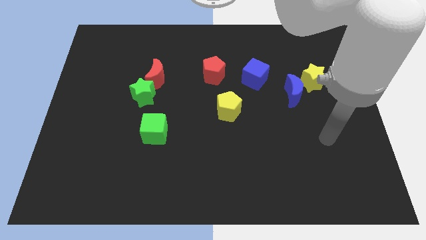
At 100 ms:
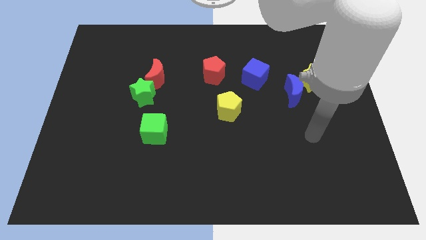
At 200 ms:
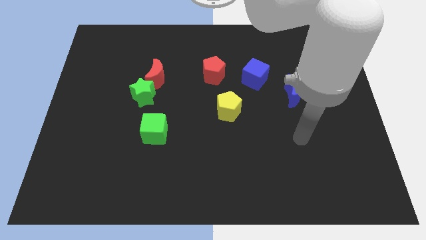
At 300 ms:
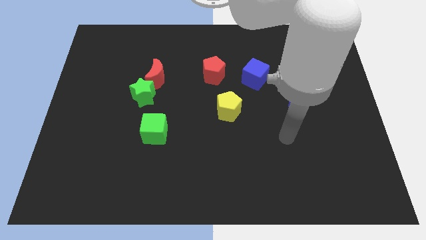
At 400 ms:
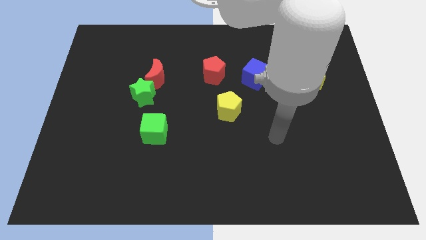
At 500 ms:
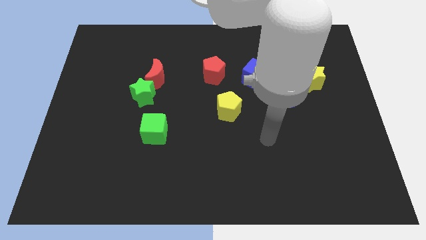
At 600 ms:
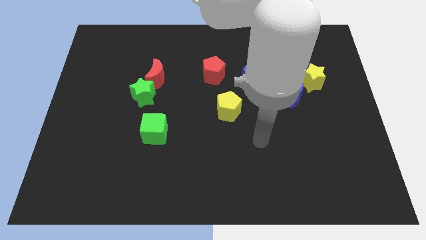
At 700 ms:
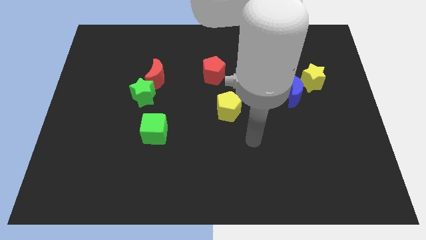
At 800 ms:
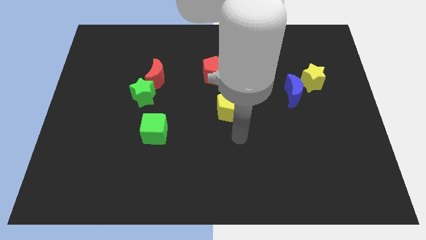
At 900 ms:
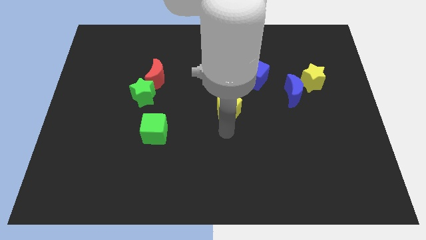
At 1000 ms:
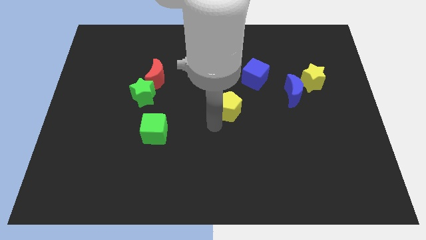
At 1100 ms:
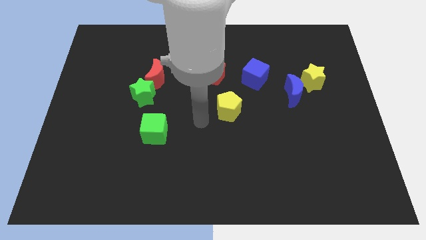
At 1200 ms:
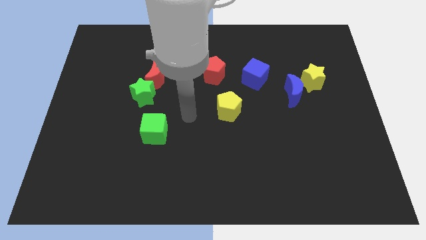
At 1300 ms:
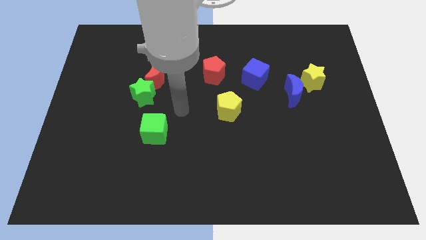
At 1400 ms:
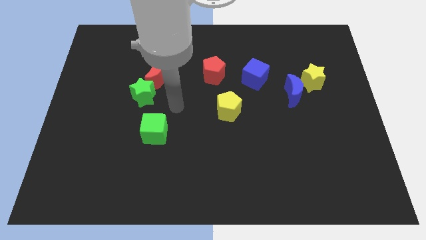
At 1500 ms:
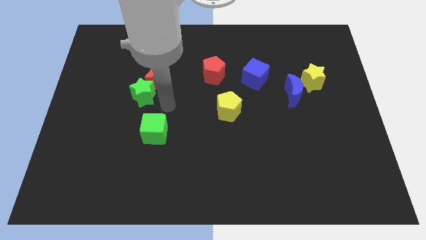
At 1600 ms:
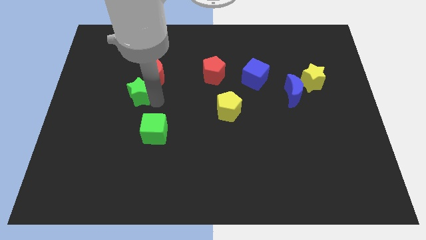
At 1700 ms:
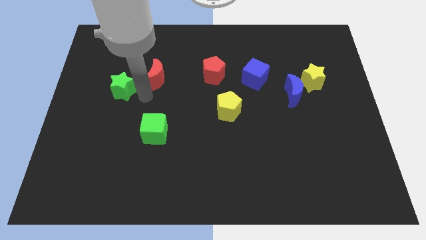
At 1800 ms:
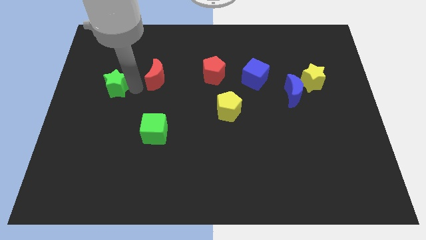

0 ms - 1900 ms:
separate the red moon from the green star

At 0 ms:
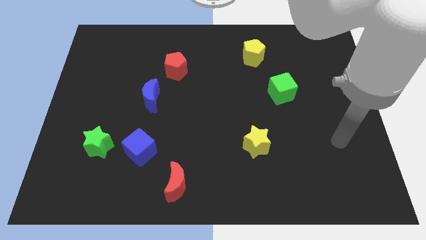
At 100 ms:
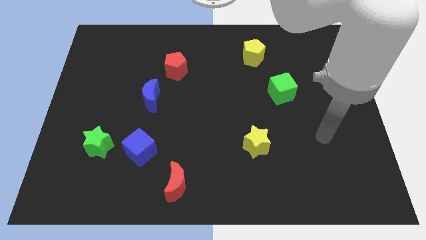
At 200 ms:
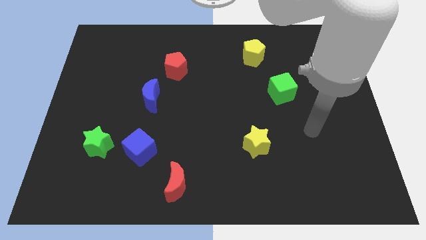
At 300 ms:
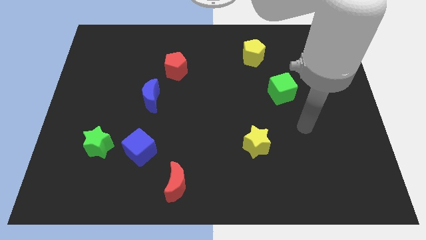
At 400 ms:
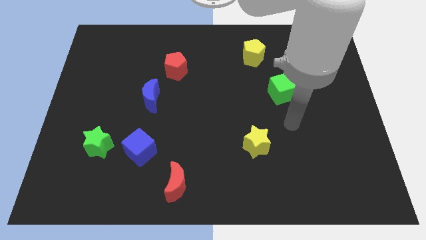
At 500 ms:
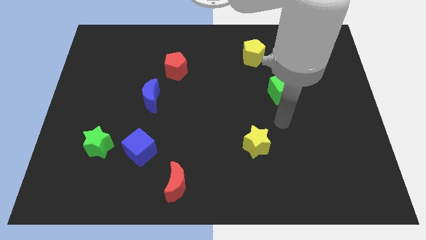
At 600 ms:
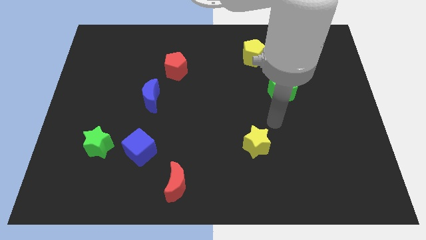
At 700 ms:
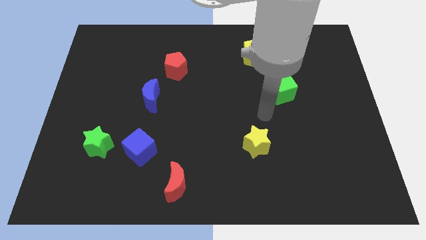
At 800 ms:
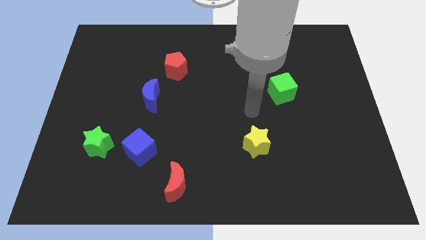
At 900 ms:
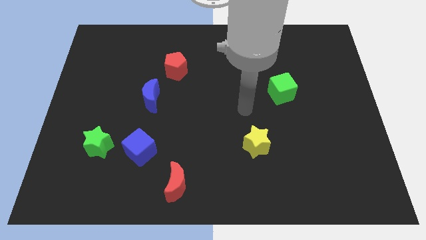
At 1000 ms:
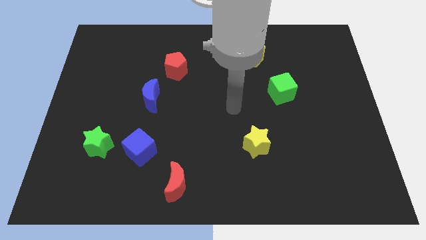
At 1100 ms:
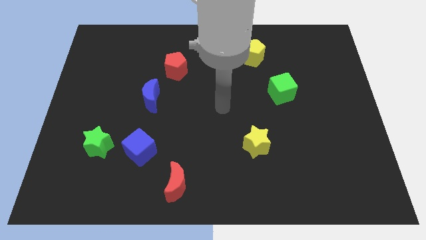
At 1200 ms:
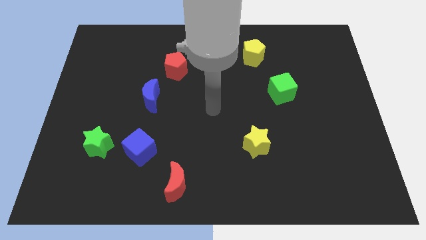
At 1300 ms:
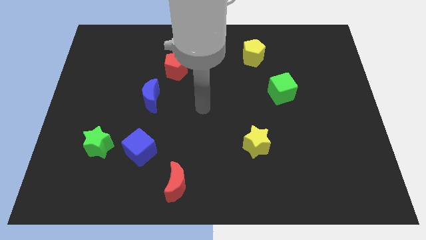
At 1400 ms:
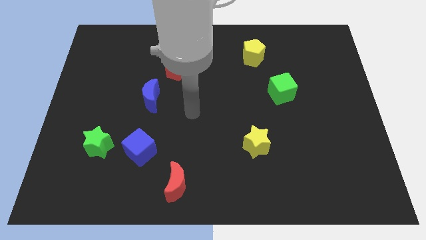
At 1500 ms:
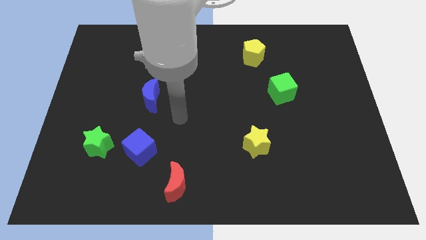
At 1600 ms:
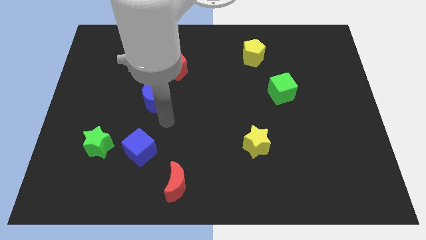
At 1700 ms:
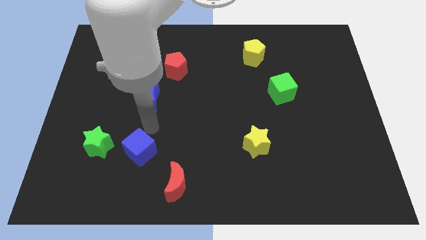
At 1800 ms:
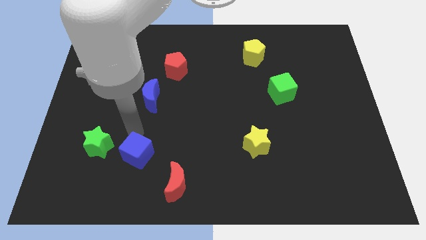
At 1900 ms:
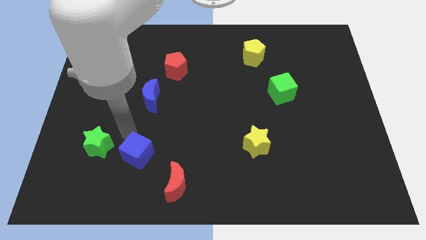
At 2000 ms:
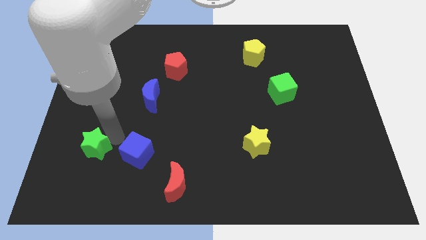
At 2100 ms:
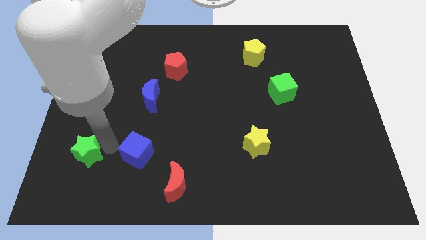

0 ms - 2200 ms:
pull the blue cube apart from the green star

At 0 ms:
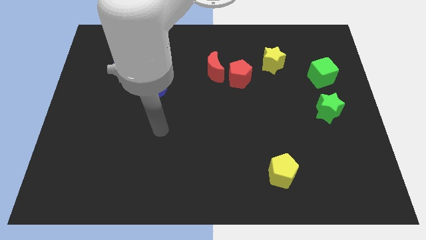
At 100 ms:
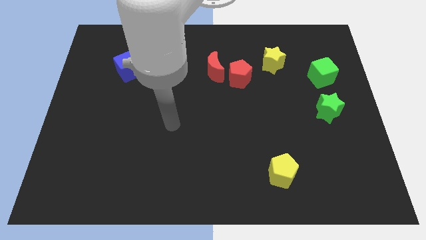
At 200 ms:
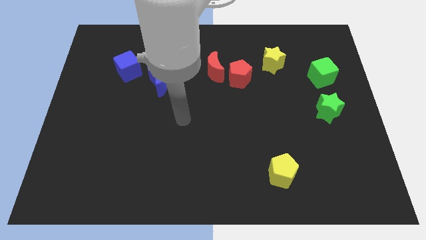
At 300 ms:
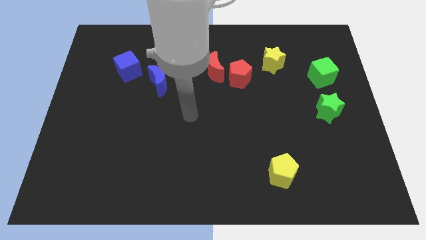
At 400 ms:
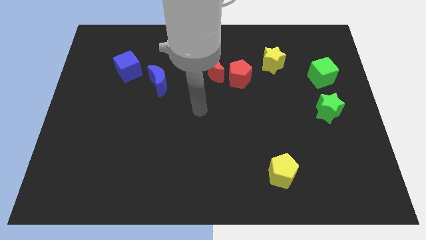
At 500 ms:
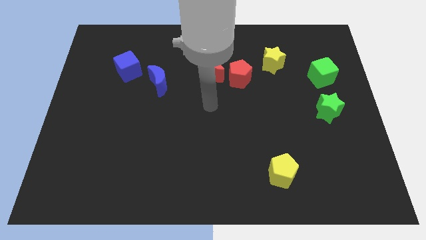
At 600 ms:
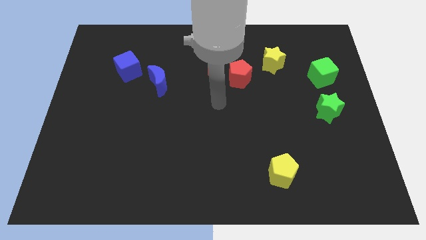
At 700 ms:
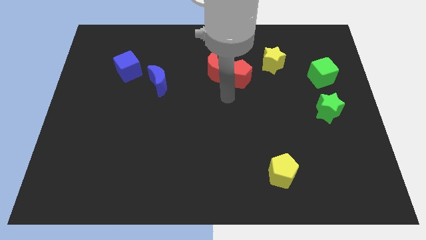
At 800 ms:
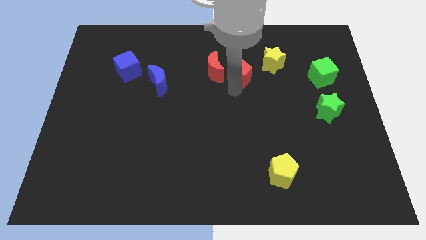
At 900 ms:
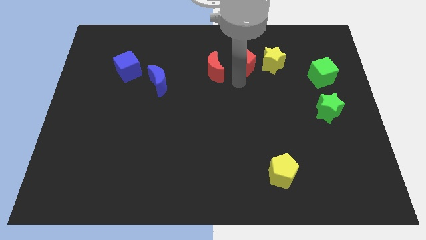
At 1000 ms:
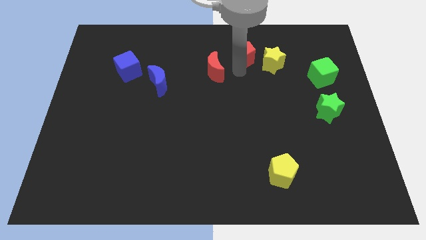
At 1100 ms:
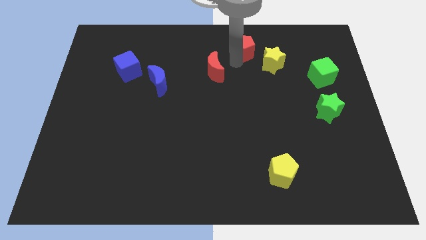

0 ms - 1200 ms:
pull the red moon apart from the red pentagon

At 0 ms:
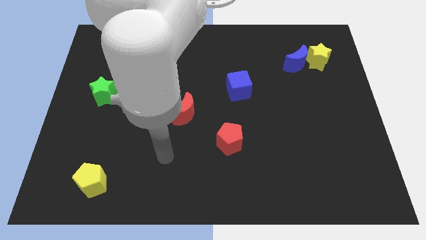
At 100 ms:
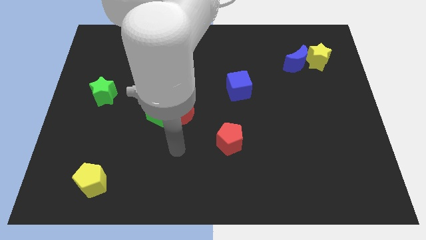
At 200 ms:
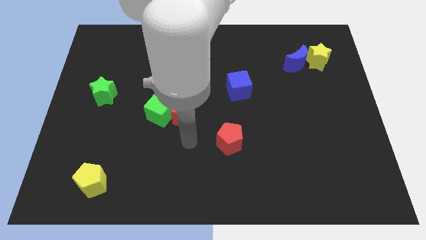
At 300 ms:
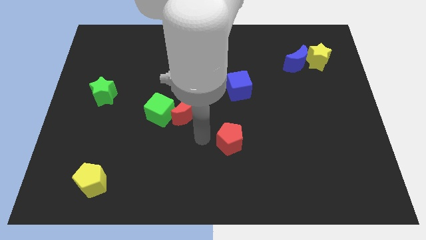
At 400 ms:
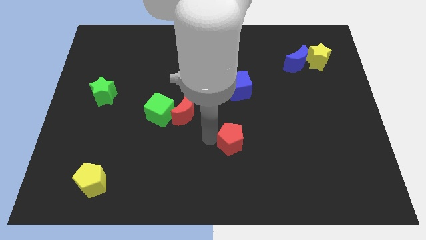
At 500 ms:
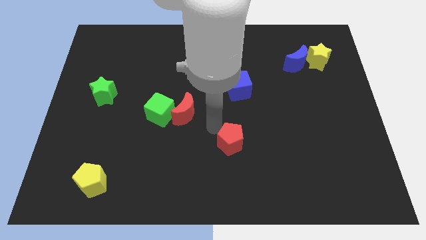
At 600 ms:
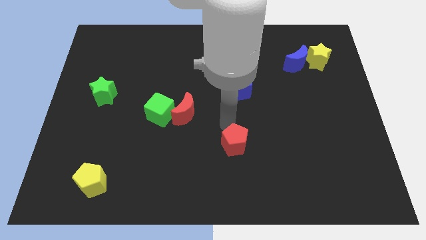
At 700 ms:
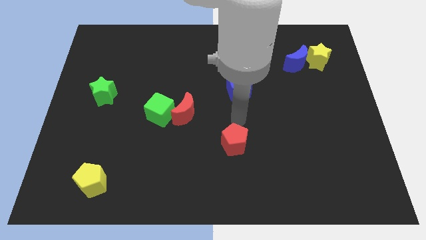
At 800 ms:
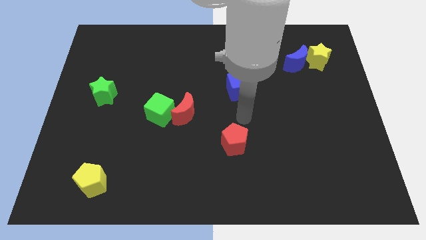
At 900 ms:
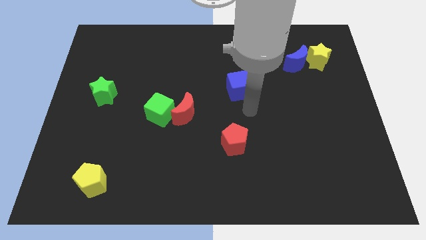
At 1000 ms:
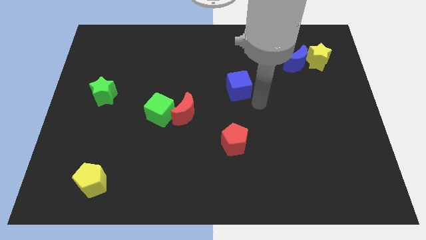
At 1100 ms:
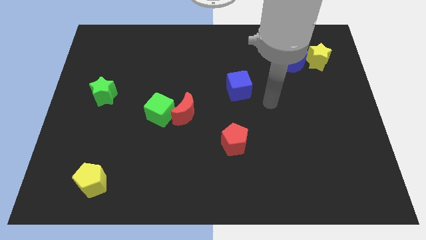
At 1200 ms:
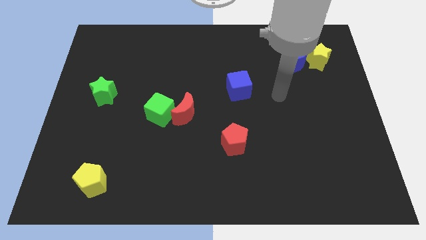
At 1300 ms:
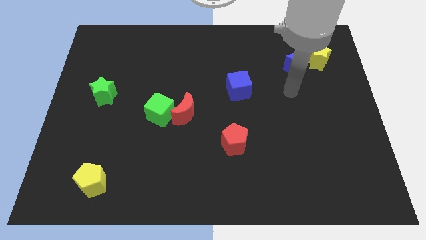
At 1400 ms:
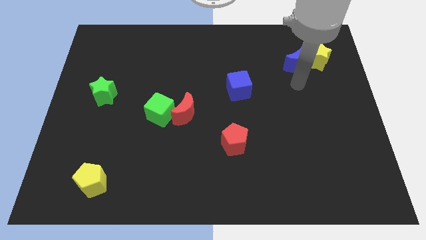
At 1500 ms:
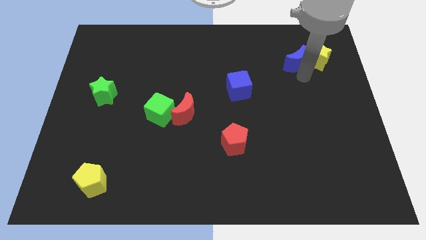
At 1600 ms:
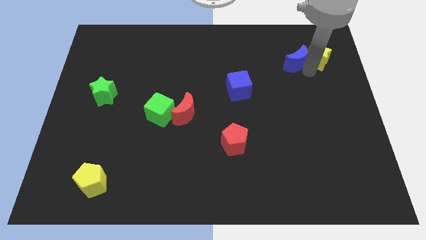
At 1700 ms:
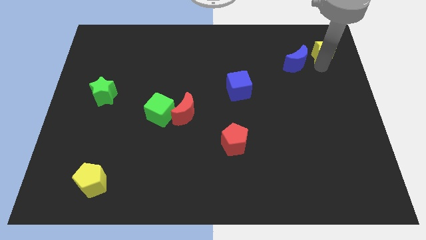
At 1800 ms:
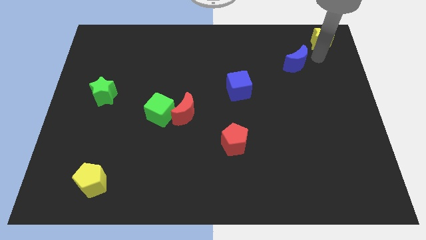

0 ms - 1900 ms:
pull the blue moon apart from the yellow star

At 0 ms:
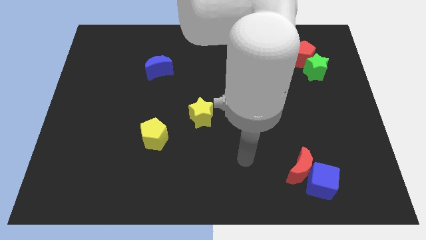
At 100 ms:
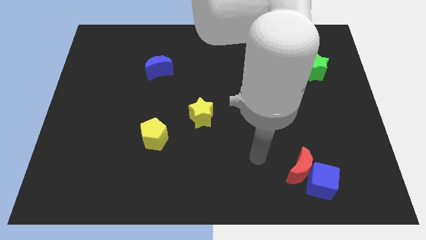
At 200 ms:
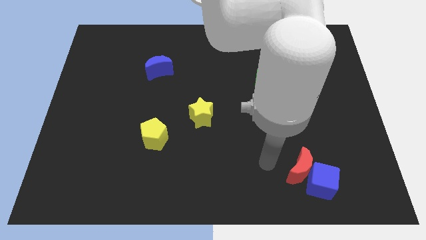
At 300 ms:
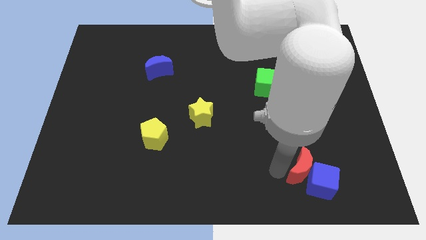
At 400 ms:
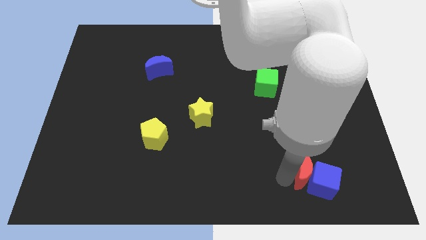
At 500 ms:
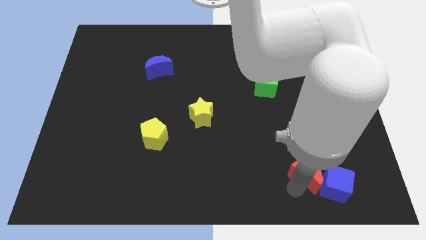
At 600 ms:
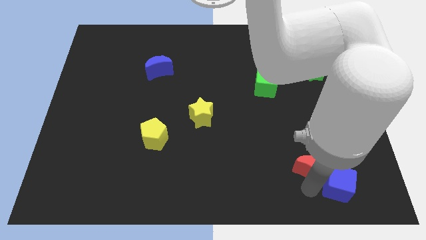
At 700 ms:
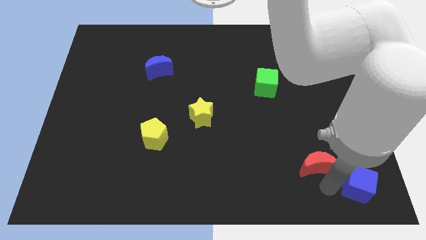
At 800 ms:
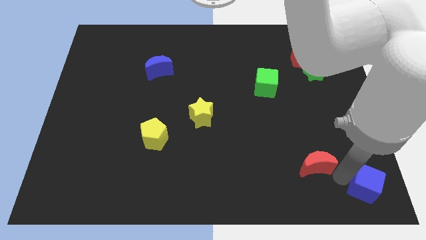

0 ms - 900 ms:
pull the red moon apart from the blue cube

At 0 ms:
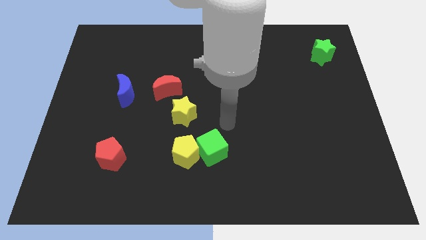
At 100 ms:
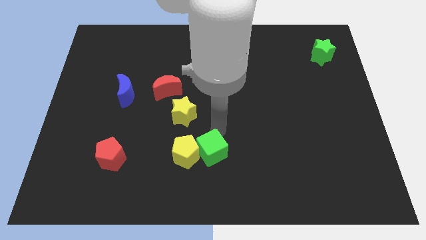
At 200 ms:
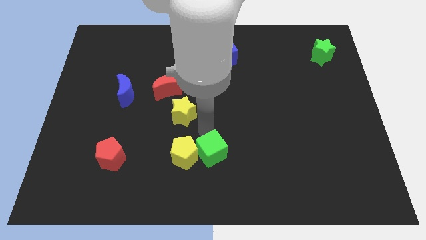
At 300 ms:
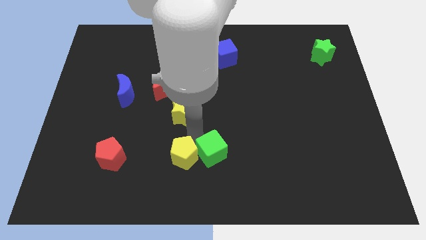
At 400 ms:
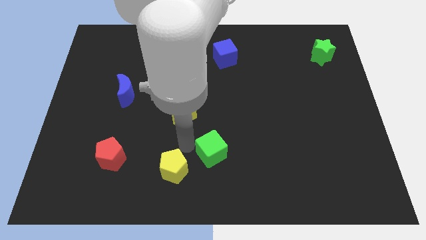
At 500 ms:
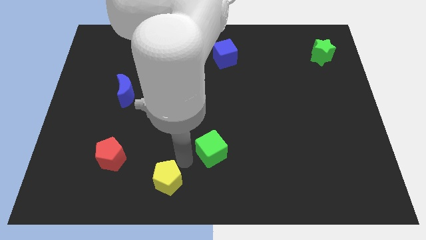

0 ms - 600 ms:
pull the green cube apart from the yellow pentagon

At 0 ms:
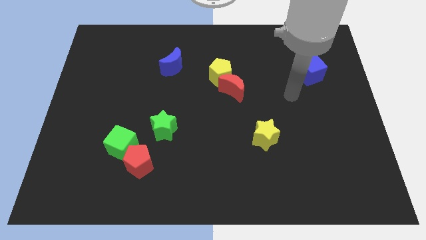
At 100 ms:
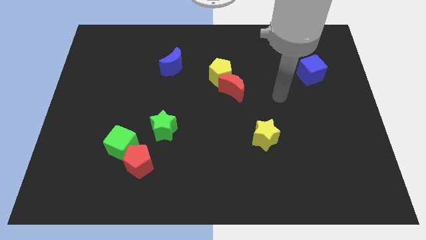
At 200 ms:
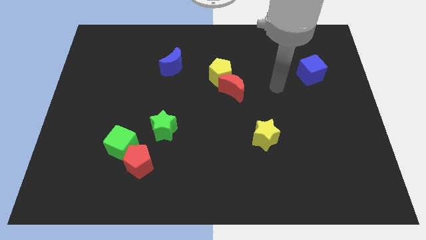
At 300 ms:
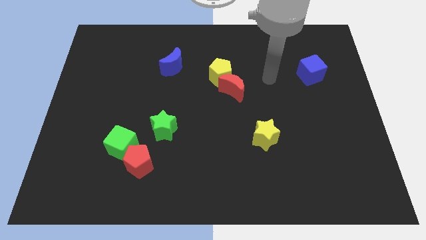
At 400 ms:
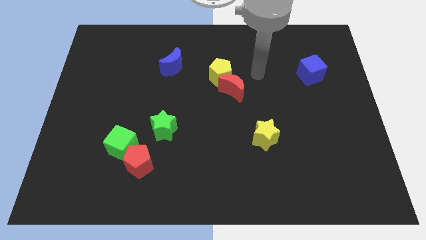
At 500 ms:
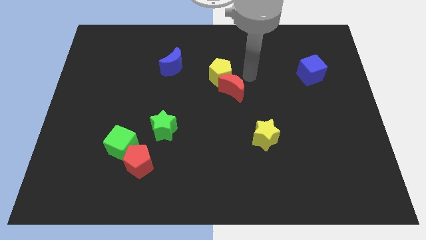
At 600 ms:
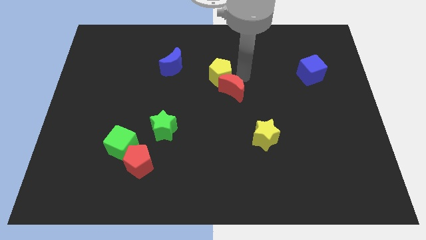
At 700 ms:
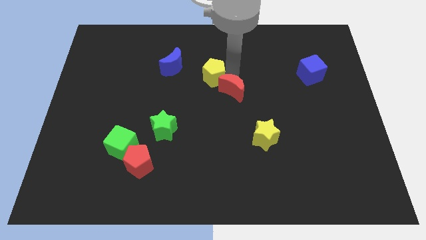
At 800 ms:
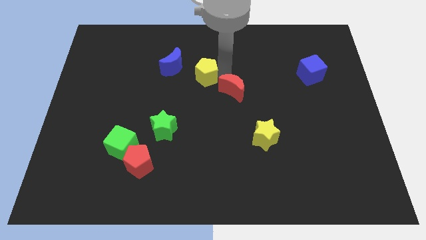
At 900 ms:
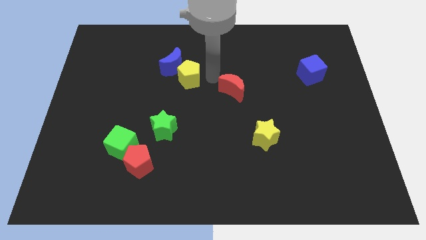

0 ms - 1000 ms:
separate the red moon from the yellow pentagon
